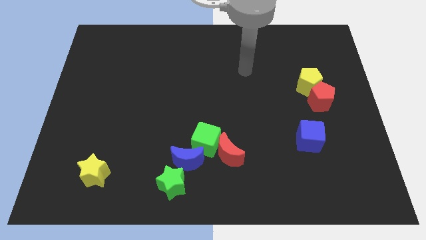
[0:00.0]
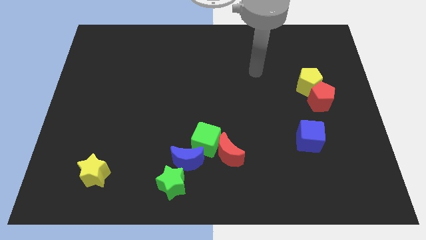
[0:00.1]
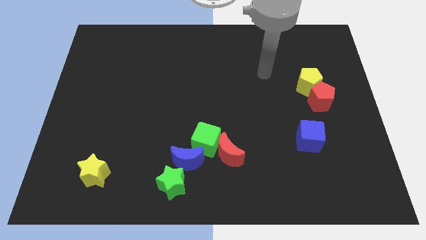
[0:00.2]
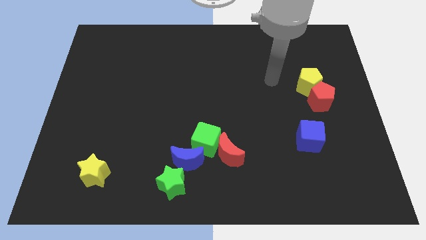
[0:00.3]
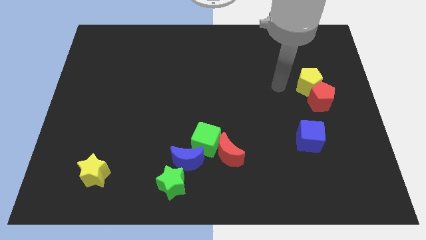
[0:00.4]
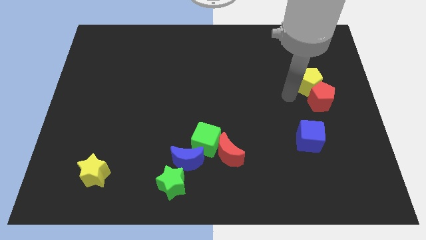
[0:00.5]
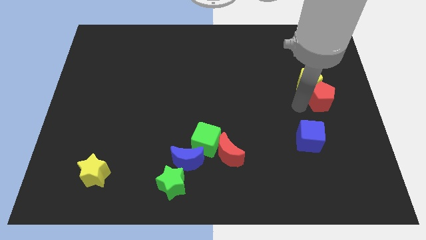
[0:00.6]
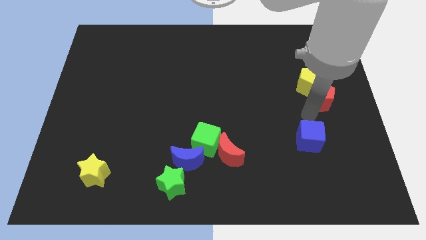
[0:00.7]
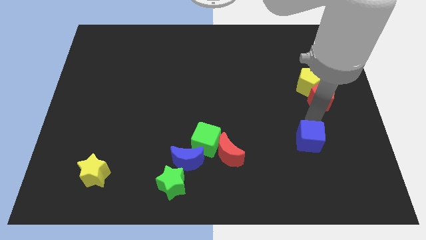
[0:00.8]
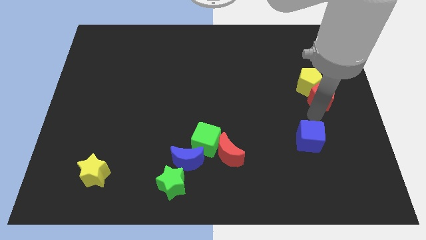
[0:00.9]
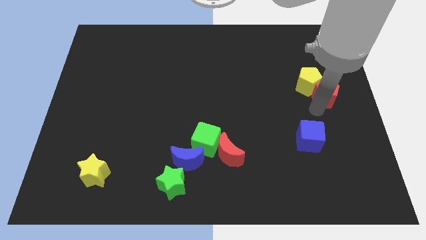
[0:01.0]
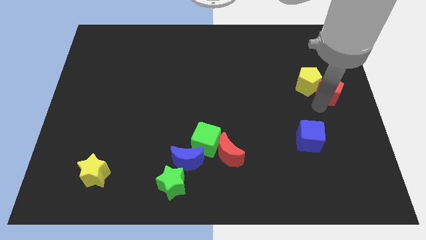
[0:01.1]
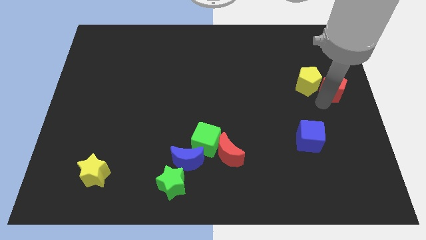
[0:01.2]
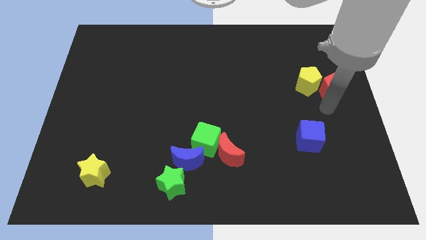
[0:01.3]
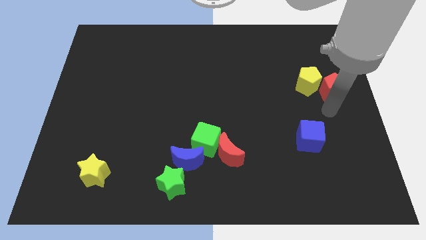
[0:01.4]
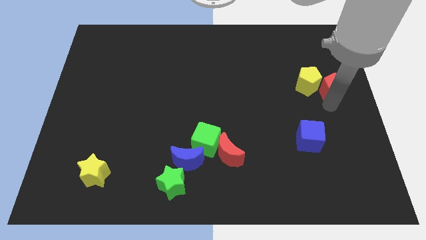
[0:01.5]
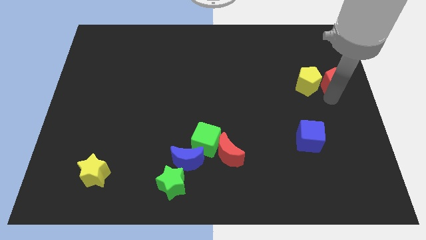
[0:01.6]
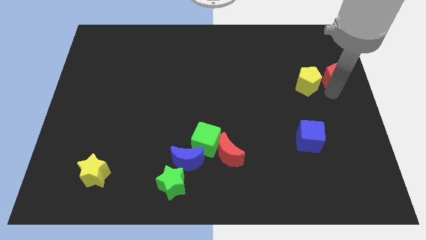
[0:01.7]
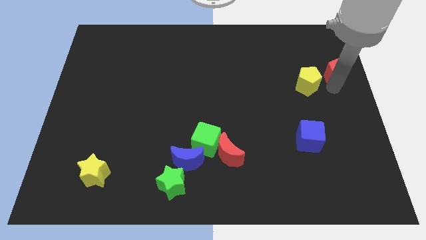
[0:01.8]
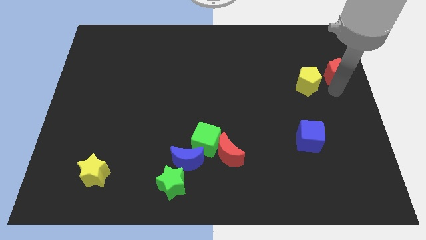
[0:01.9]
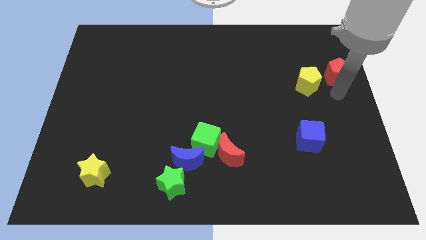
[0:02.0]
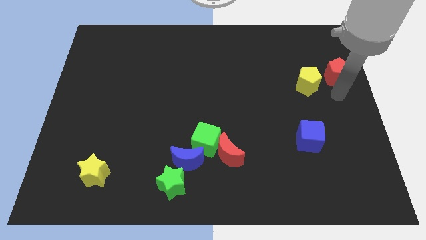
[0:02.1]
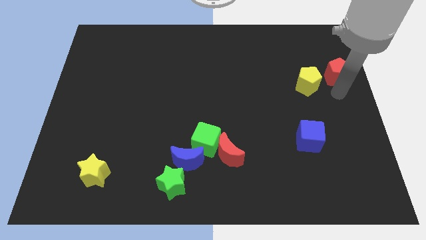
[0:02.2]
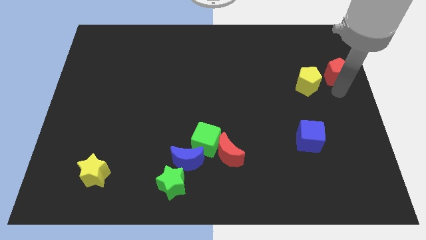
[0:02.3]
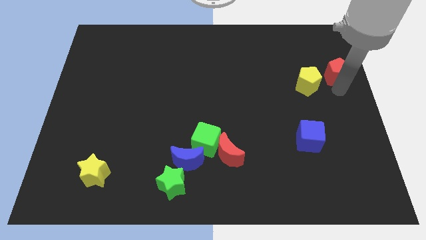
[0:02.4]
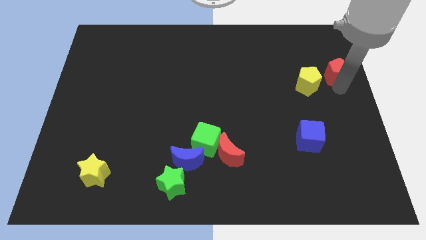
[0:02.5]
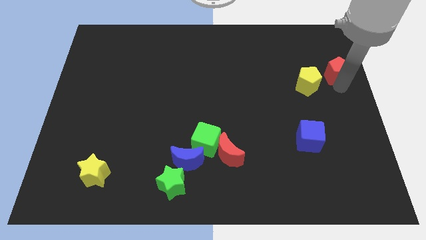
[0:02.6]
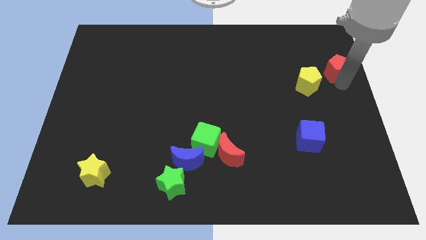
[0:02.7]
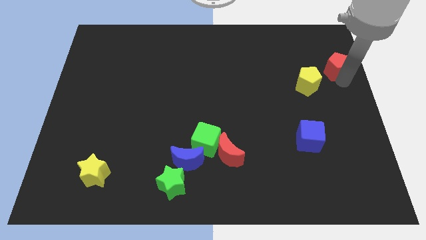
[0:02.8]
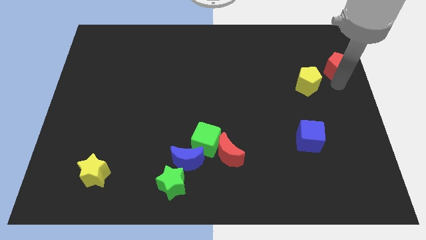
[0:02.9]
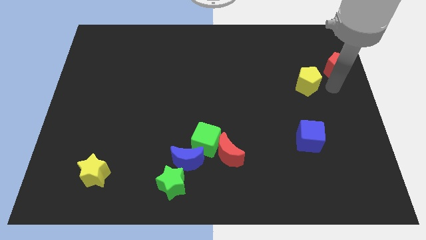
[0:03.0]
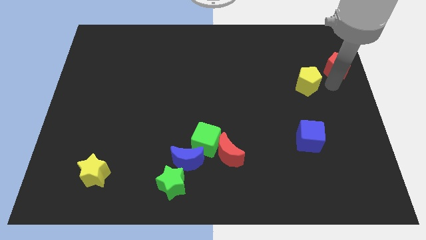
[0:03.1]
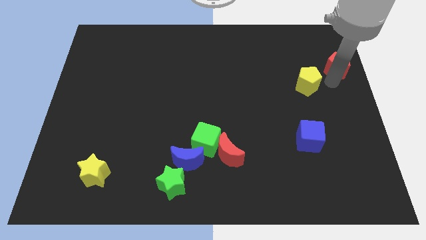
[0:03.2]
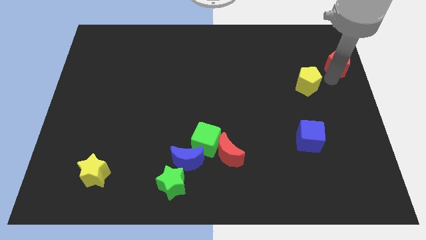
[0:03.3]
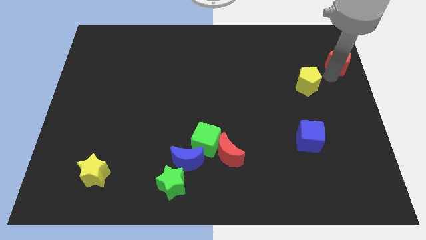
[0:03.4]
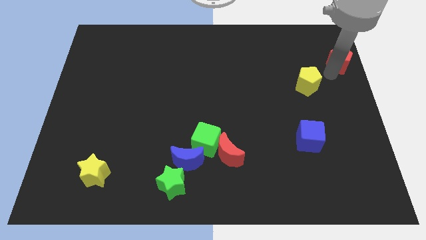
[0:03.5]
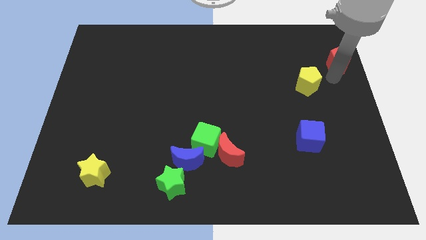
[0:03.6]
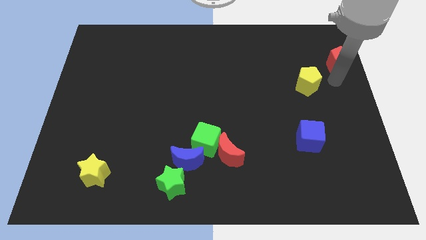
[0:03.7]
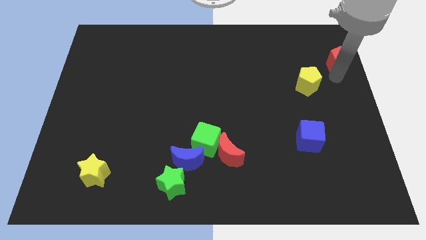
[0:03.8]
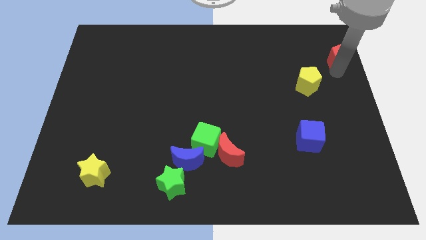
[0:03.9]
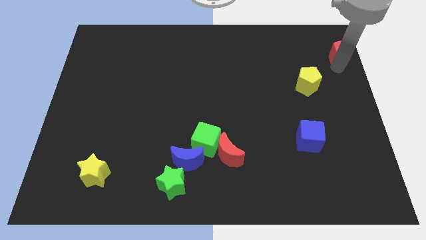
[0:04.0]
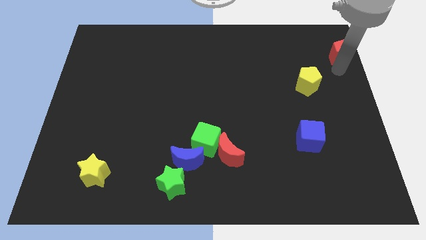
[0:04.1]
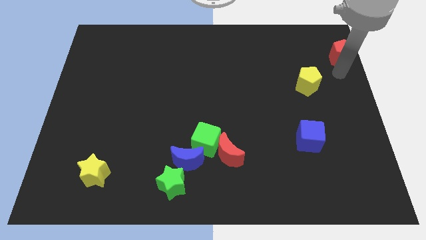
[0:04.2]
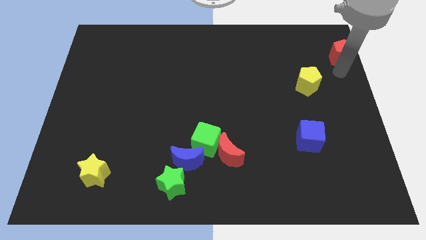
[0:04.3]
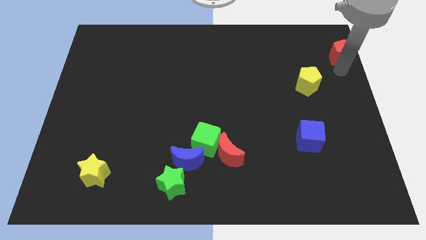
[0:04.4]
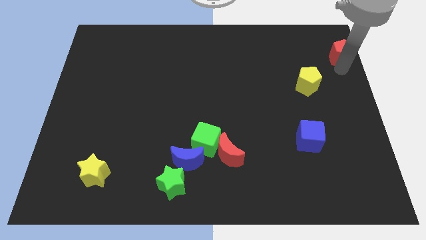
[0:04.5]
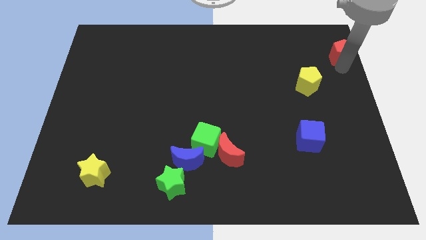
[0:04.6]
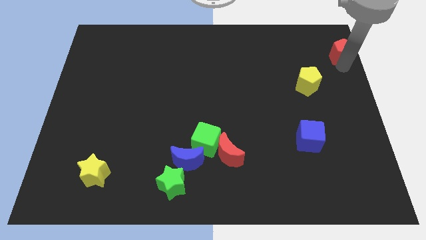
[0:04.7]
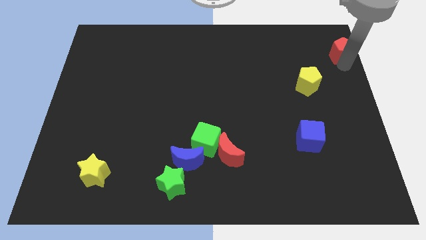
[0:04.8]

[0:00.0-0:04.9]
move the red pentagon to the top right of the board

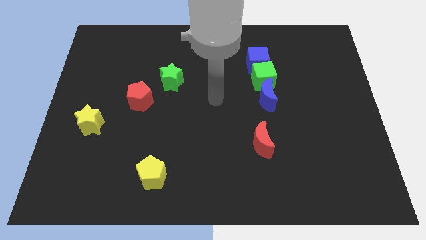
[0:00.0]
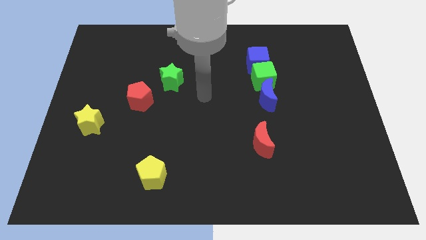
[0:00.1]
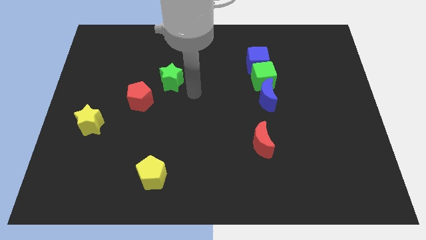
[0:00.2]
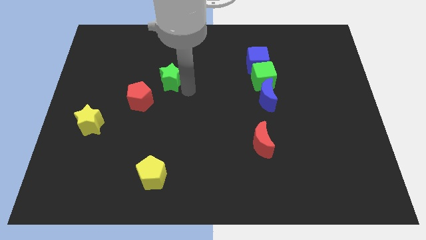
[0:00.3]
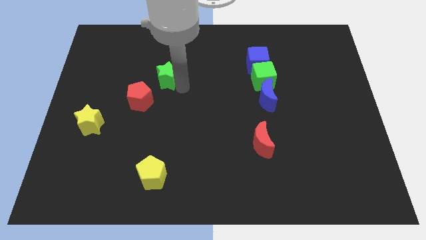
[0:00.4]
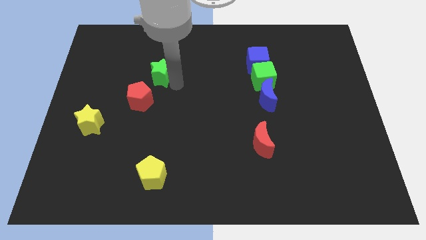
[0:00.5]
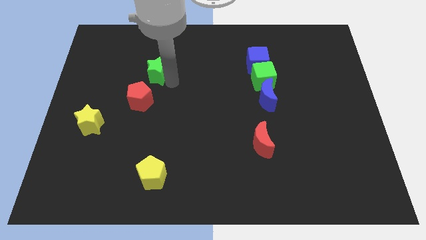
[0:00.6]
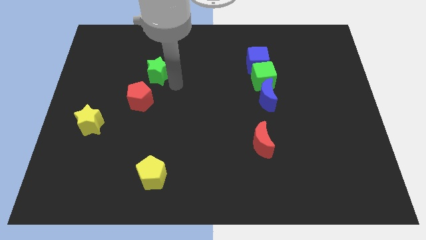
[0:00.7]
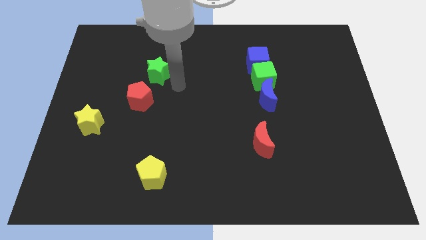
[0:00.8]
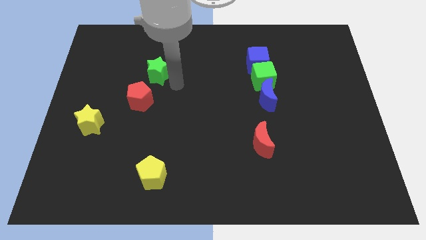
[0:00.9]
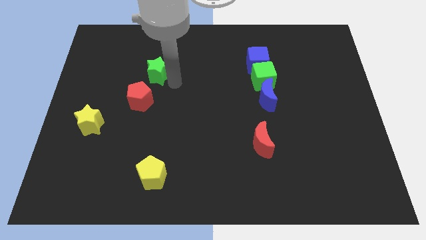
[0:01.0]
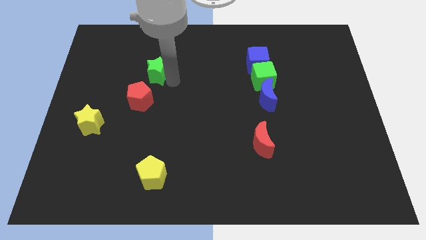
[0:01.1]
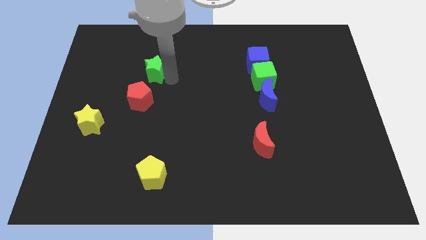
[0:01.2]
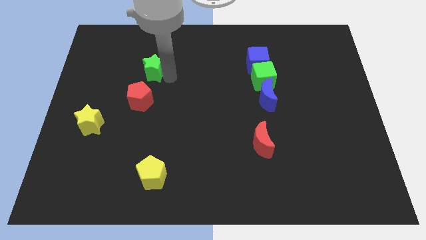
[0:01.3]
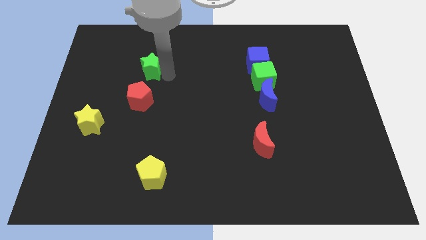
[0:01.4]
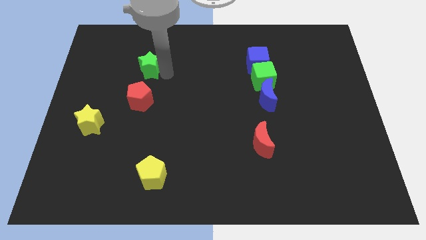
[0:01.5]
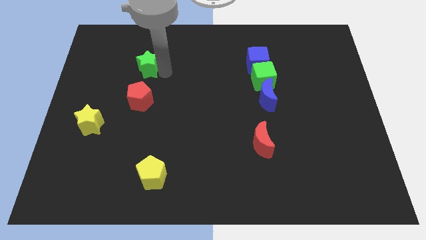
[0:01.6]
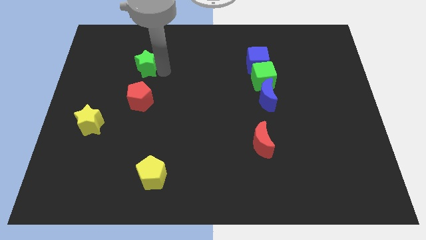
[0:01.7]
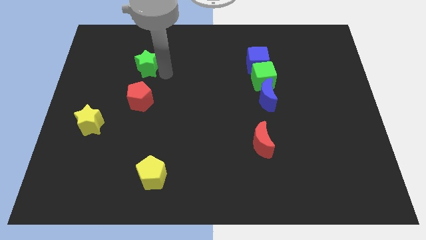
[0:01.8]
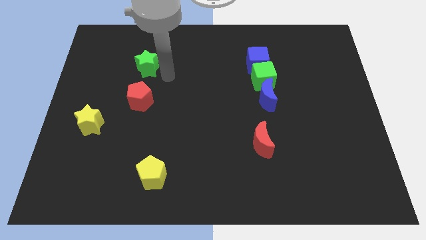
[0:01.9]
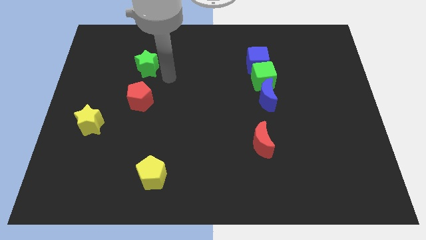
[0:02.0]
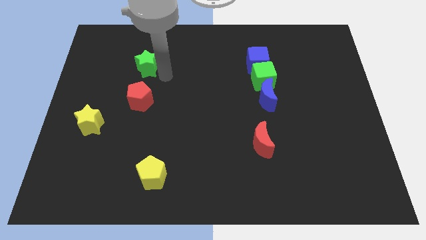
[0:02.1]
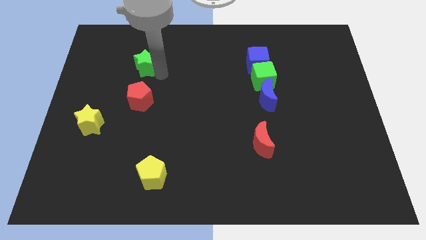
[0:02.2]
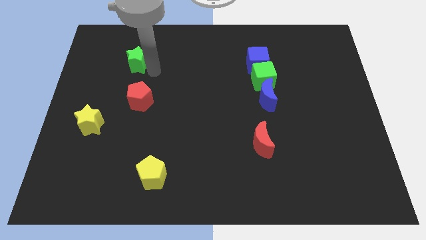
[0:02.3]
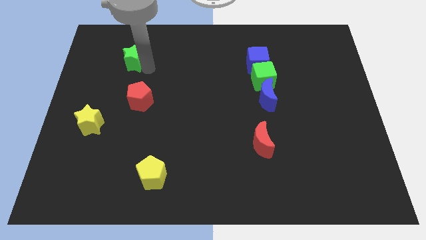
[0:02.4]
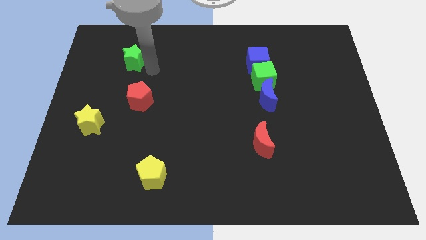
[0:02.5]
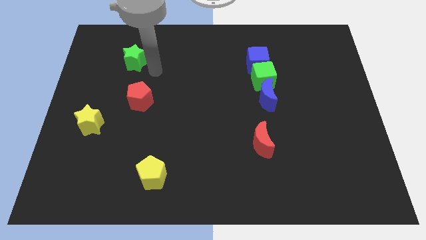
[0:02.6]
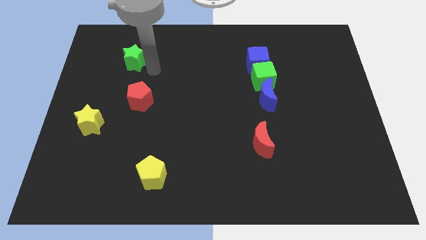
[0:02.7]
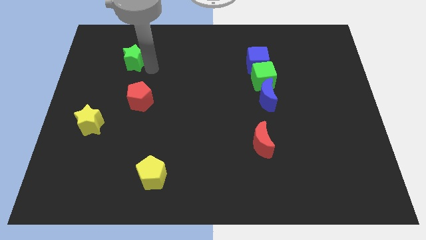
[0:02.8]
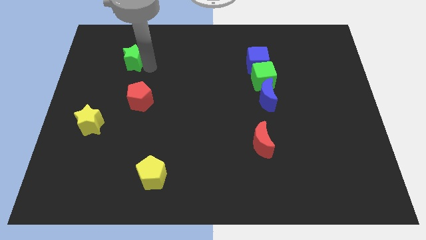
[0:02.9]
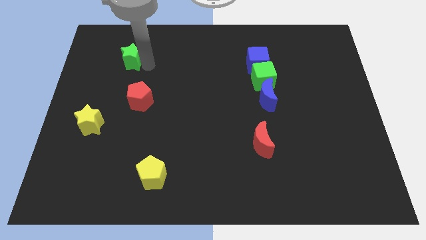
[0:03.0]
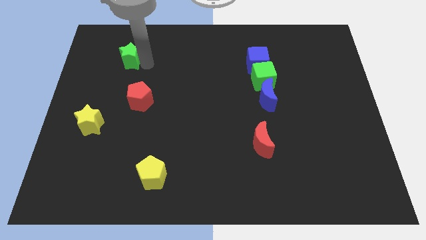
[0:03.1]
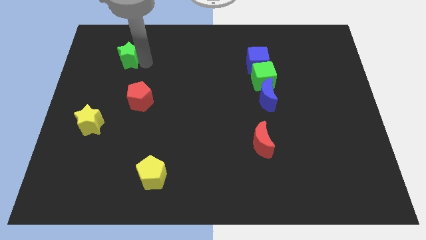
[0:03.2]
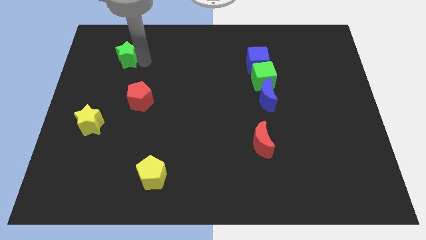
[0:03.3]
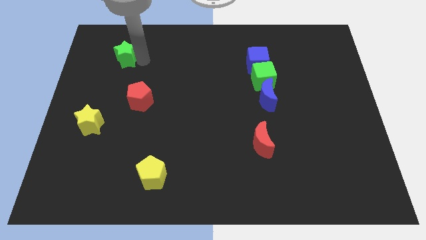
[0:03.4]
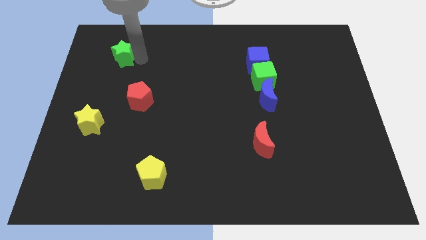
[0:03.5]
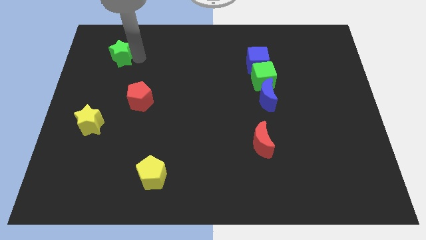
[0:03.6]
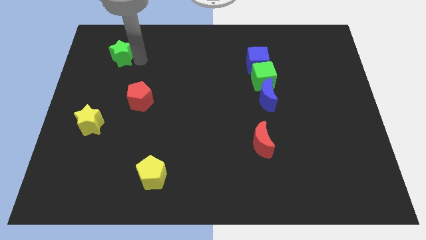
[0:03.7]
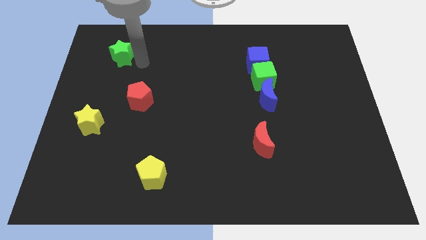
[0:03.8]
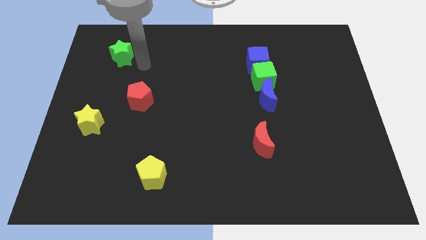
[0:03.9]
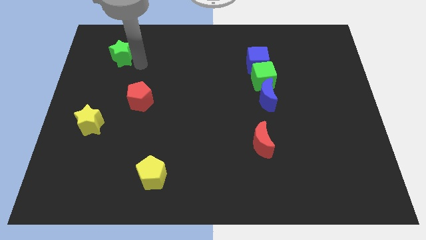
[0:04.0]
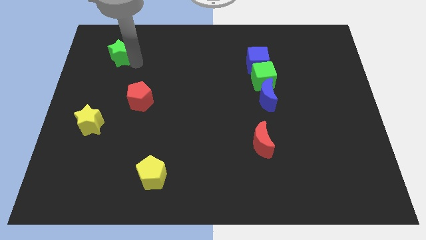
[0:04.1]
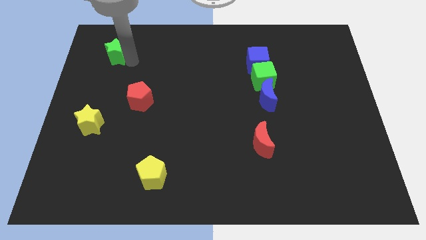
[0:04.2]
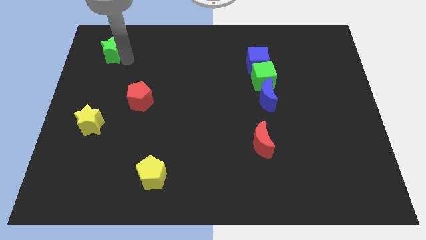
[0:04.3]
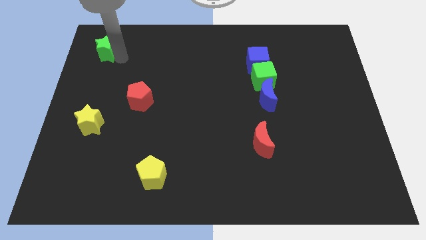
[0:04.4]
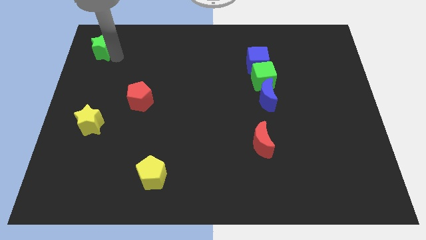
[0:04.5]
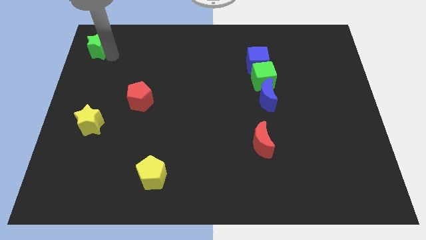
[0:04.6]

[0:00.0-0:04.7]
slide the green star to the upper left corner
